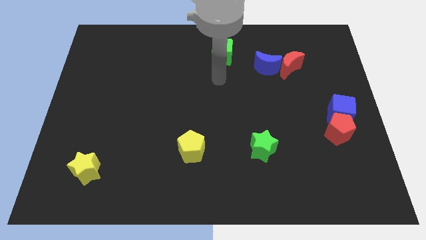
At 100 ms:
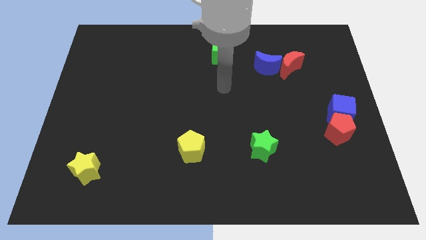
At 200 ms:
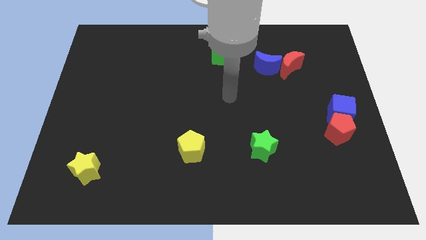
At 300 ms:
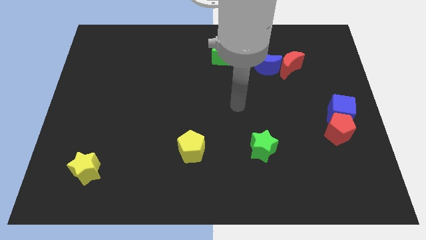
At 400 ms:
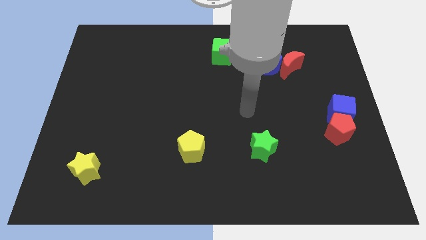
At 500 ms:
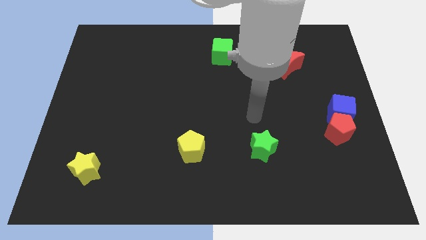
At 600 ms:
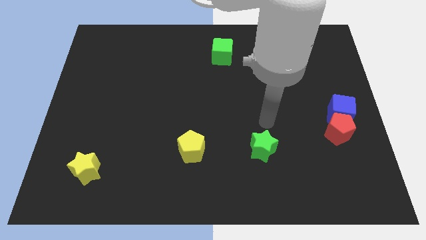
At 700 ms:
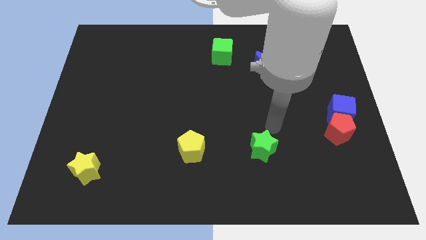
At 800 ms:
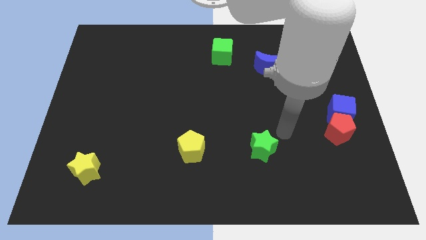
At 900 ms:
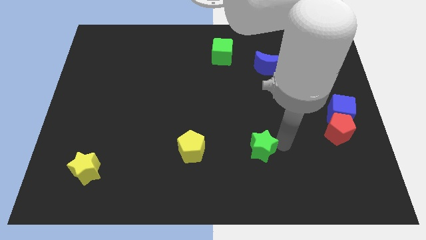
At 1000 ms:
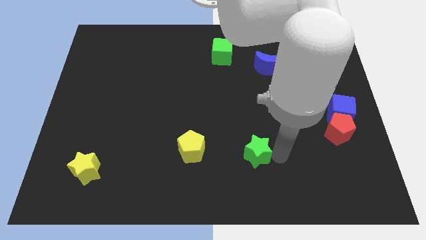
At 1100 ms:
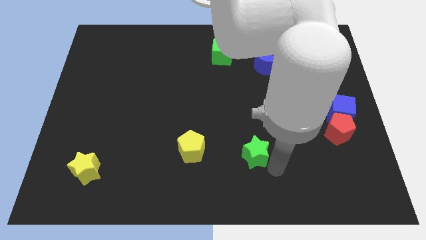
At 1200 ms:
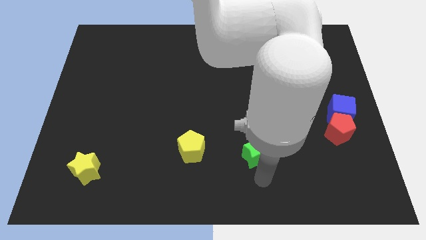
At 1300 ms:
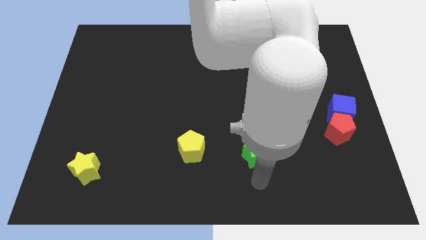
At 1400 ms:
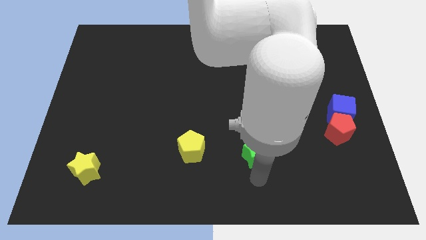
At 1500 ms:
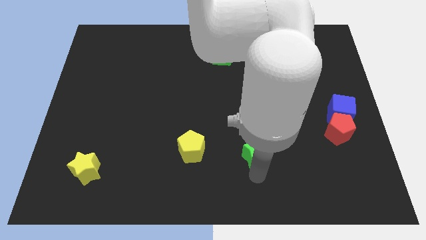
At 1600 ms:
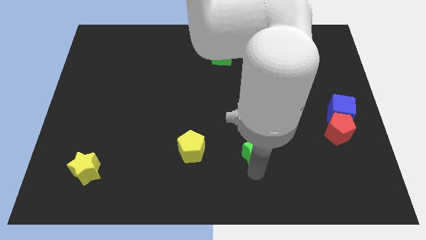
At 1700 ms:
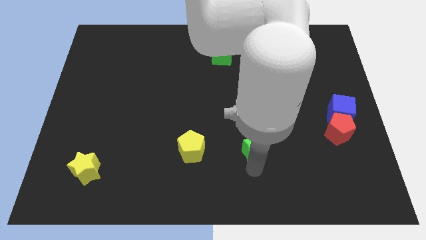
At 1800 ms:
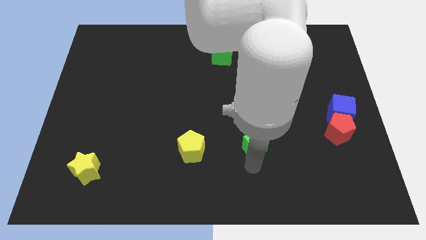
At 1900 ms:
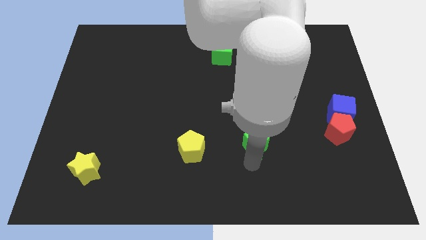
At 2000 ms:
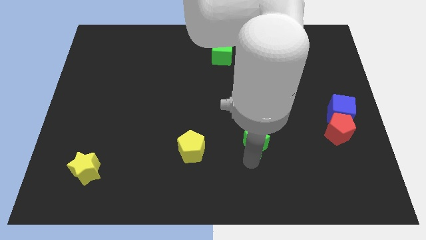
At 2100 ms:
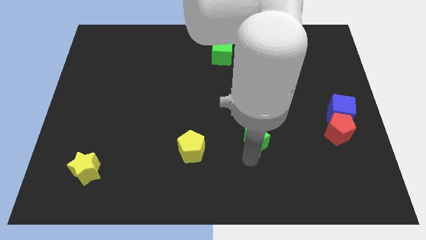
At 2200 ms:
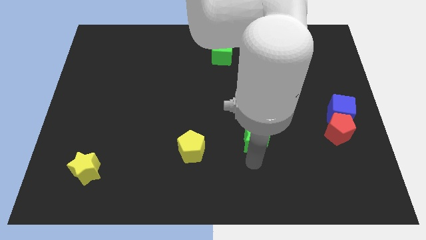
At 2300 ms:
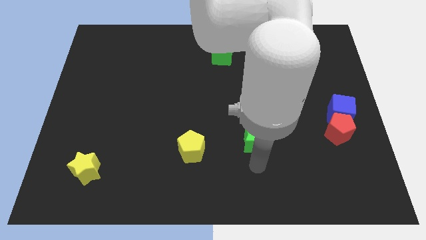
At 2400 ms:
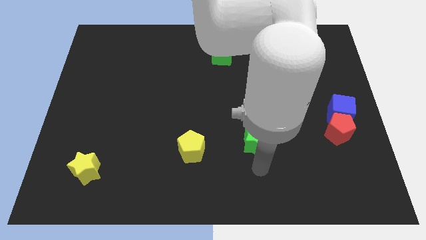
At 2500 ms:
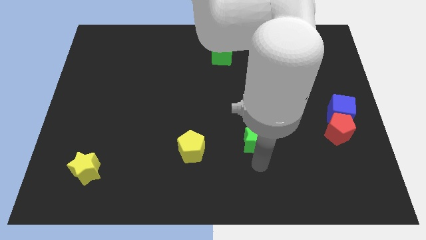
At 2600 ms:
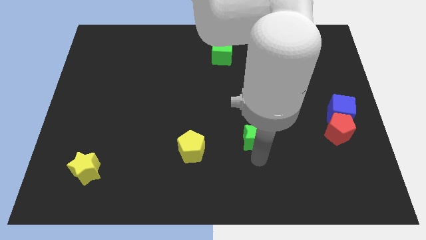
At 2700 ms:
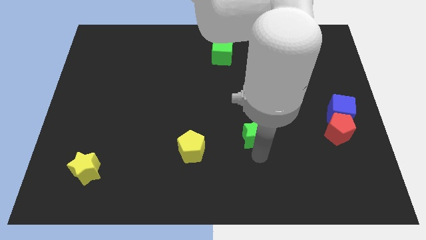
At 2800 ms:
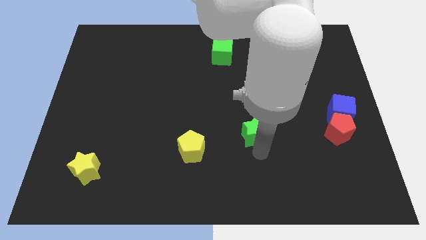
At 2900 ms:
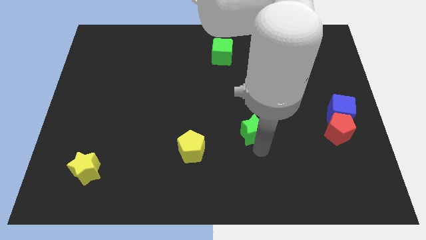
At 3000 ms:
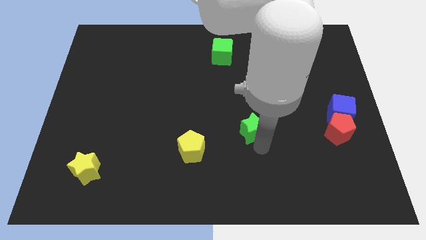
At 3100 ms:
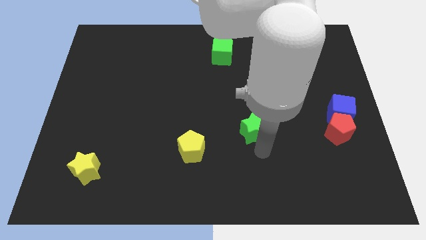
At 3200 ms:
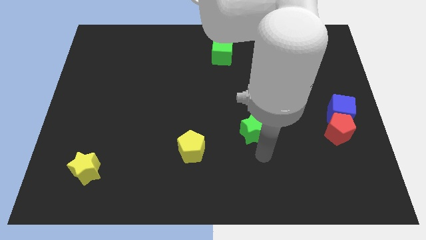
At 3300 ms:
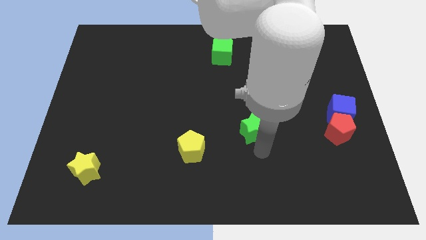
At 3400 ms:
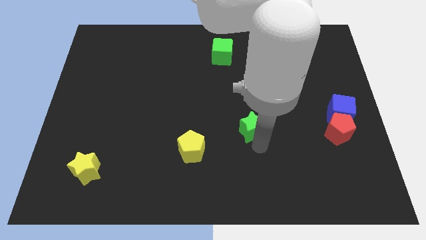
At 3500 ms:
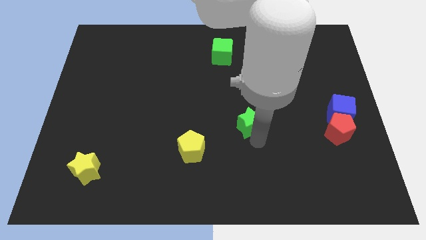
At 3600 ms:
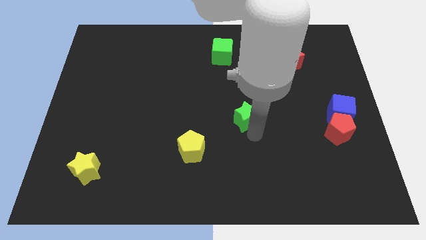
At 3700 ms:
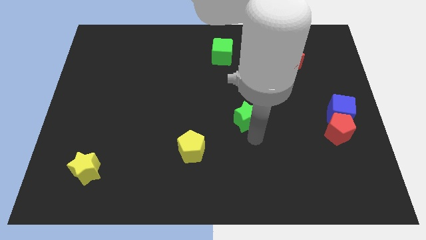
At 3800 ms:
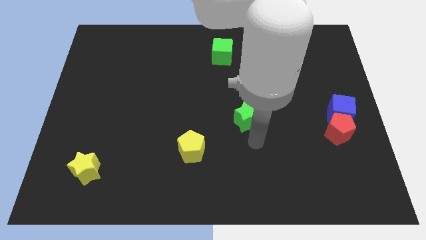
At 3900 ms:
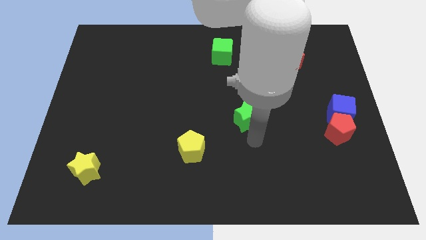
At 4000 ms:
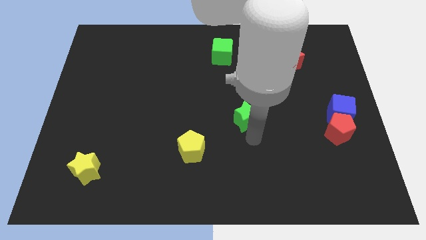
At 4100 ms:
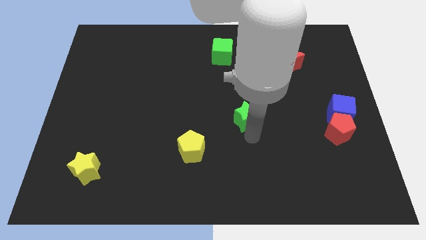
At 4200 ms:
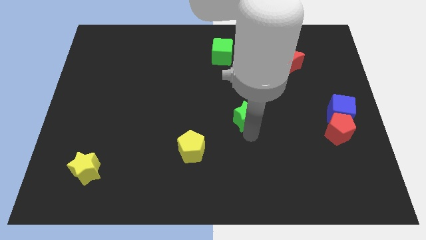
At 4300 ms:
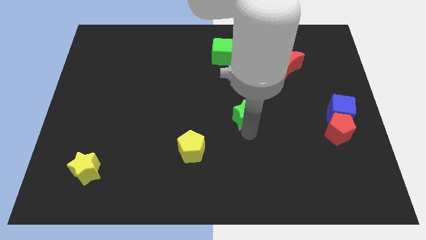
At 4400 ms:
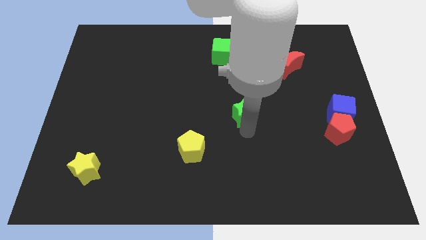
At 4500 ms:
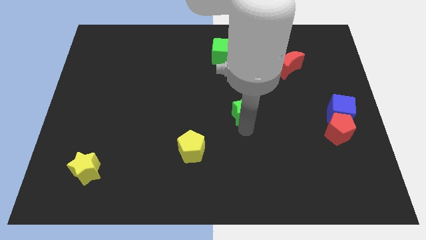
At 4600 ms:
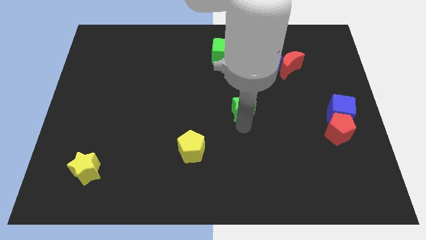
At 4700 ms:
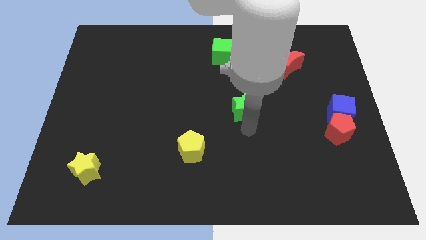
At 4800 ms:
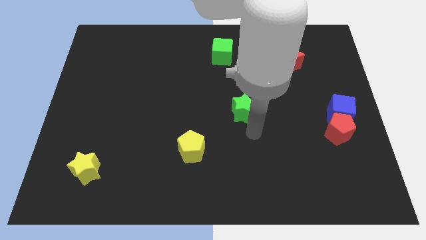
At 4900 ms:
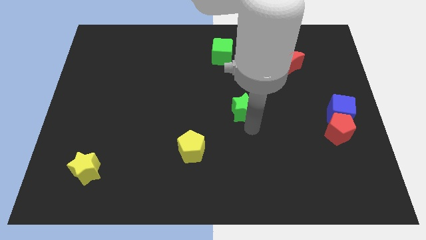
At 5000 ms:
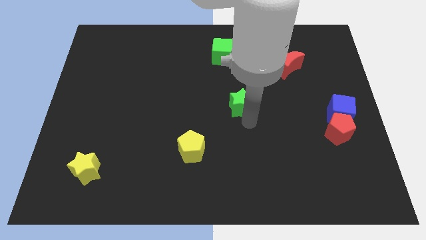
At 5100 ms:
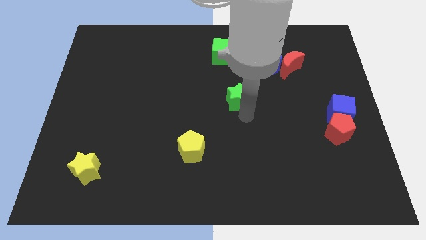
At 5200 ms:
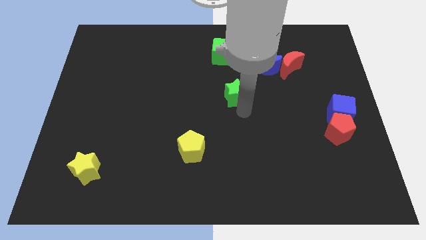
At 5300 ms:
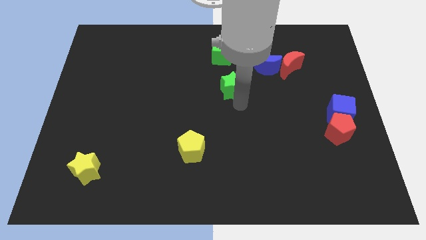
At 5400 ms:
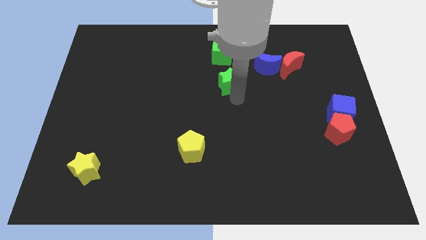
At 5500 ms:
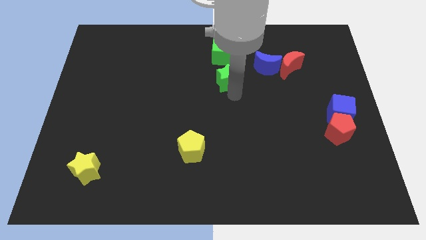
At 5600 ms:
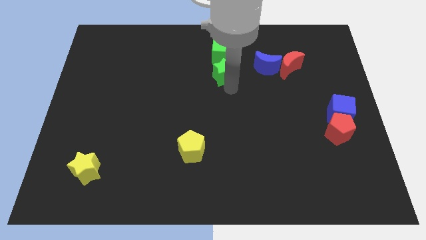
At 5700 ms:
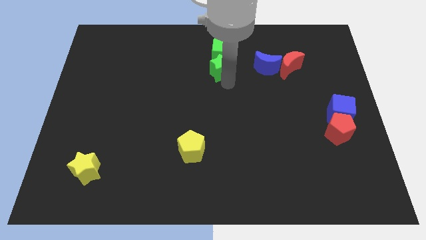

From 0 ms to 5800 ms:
slide the green star to the green cube

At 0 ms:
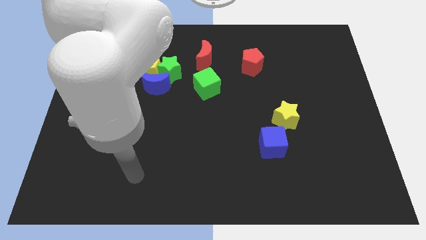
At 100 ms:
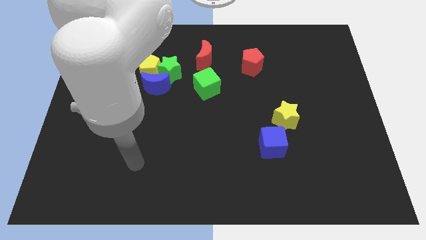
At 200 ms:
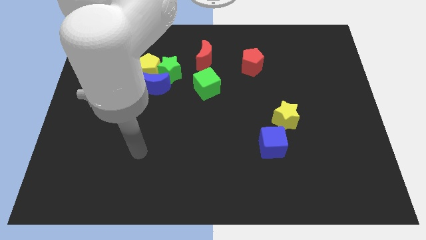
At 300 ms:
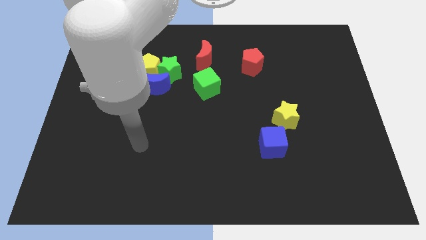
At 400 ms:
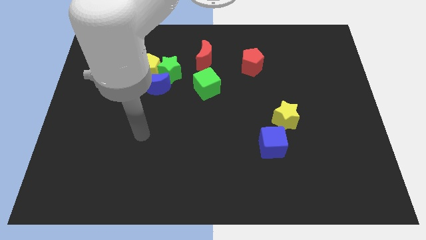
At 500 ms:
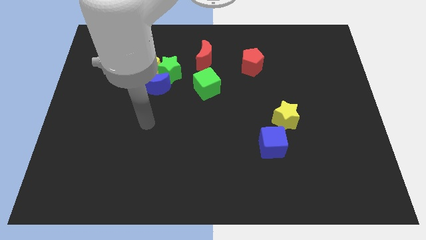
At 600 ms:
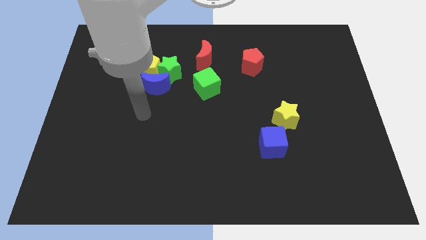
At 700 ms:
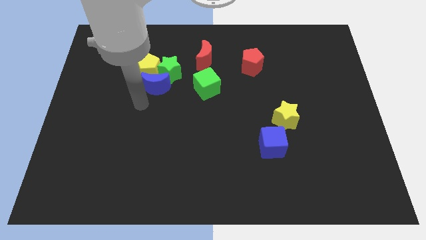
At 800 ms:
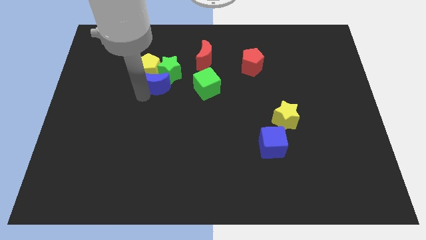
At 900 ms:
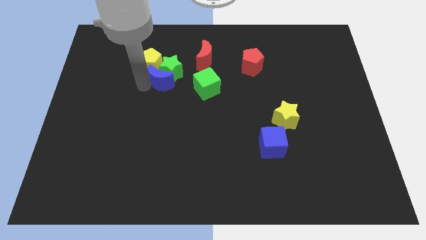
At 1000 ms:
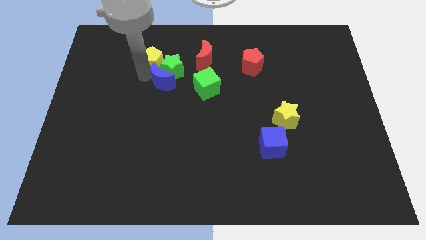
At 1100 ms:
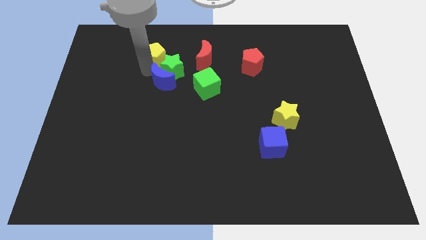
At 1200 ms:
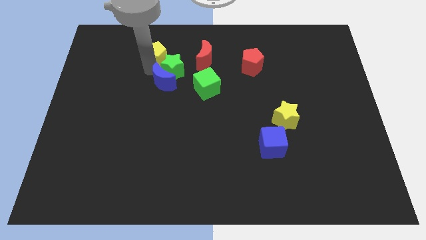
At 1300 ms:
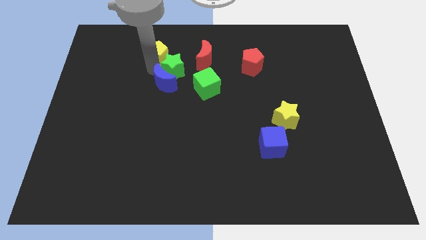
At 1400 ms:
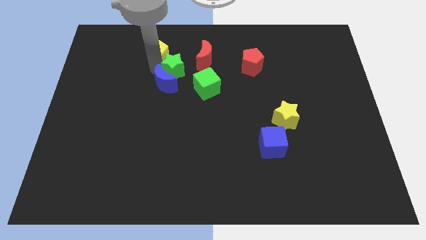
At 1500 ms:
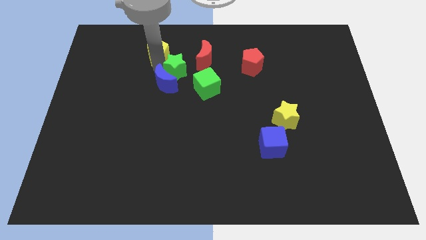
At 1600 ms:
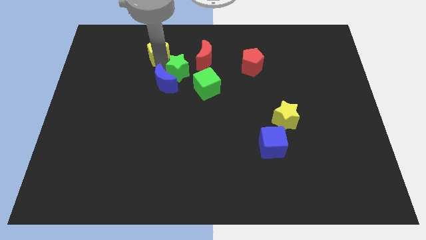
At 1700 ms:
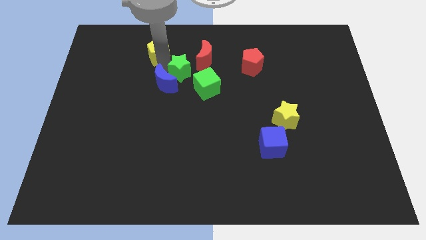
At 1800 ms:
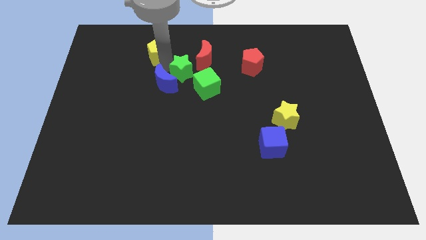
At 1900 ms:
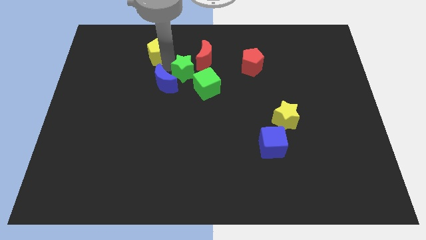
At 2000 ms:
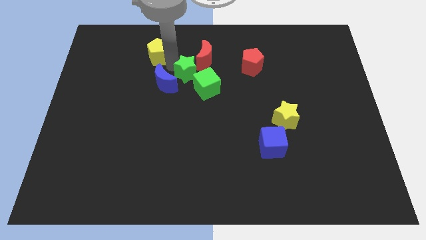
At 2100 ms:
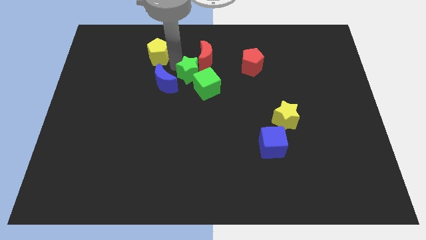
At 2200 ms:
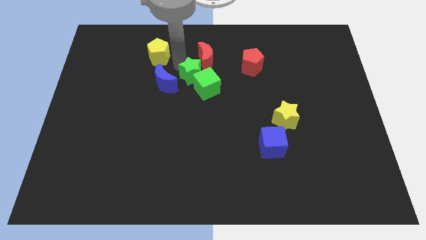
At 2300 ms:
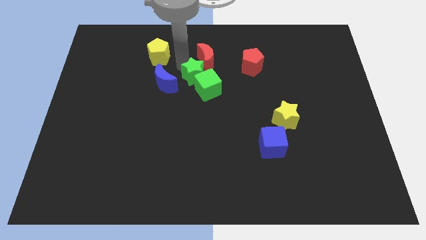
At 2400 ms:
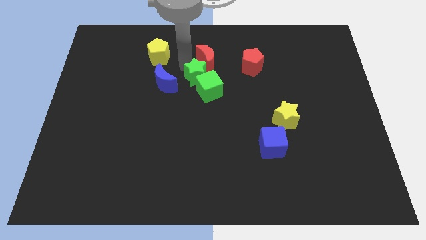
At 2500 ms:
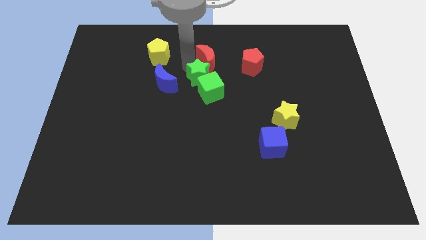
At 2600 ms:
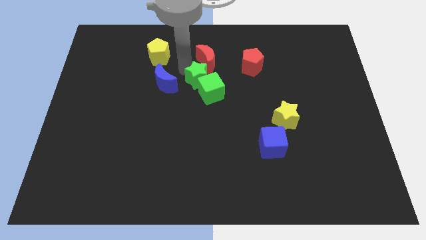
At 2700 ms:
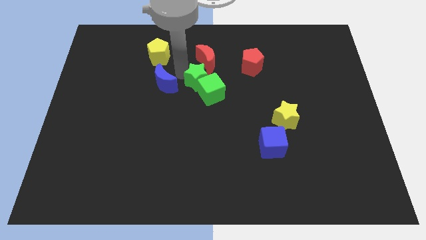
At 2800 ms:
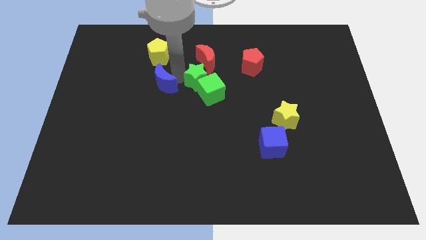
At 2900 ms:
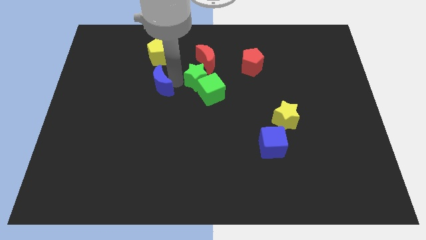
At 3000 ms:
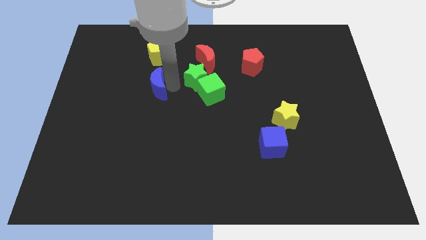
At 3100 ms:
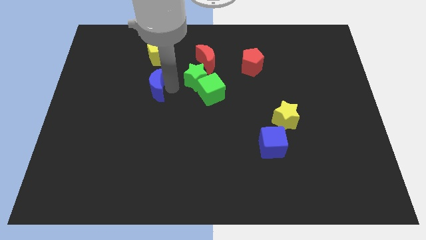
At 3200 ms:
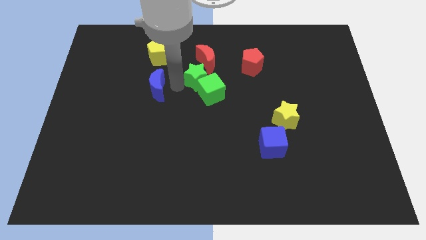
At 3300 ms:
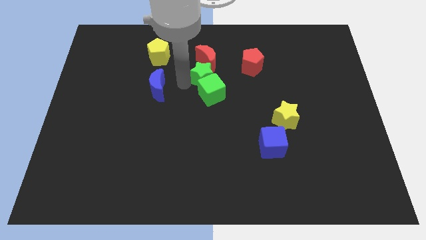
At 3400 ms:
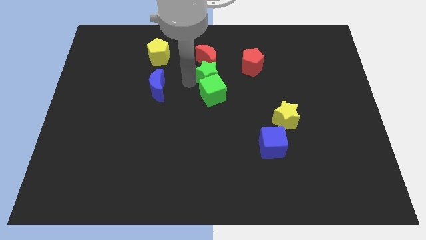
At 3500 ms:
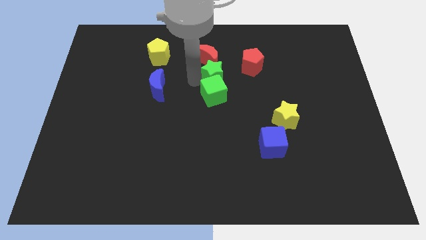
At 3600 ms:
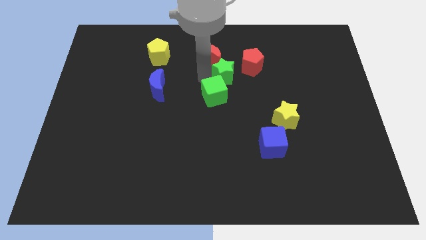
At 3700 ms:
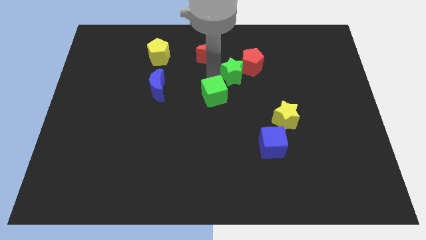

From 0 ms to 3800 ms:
push the green star next to the red pentagon
